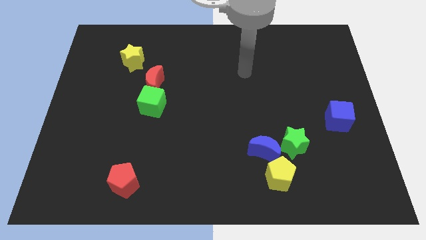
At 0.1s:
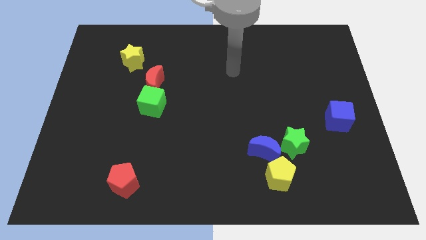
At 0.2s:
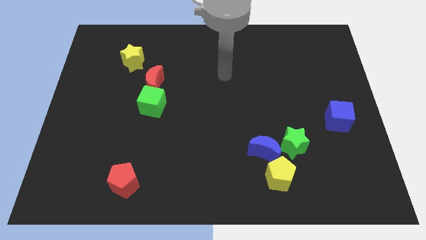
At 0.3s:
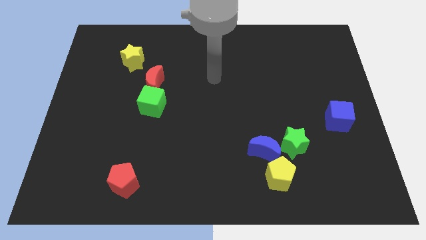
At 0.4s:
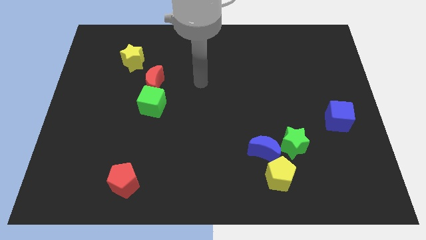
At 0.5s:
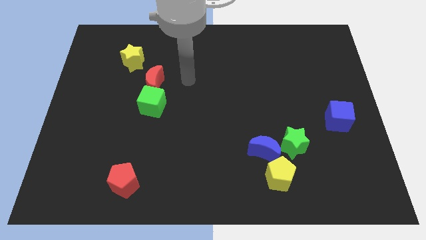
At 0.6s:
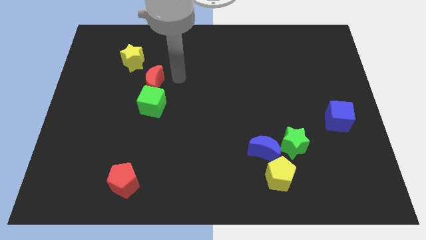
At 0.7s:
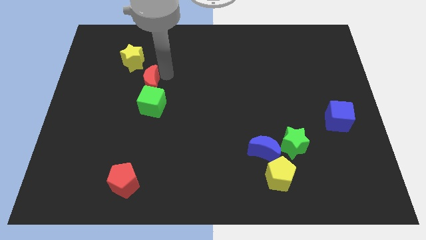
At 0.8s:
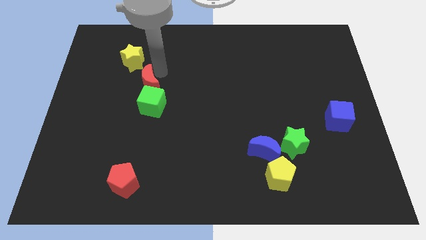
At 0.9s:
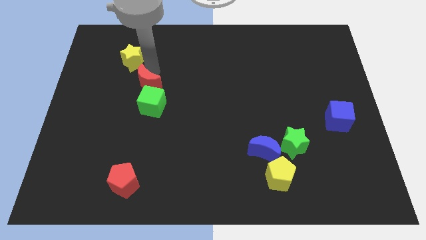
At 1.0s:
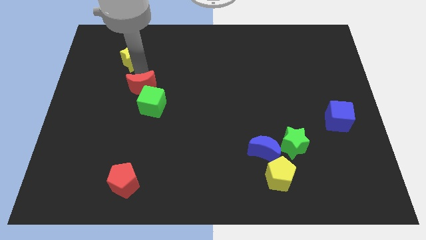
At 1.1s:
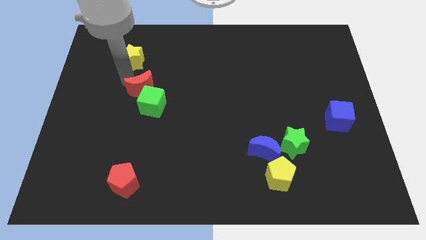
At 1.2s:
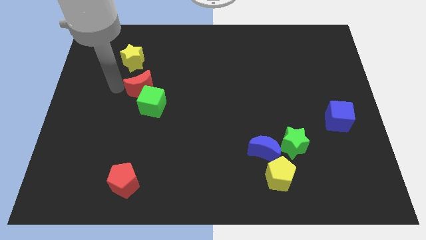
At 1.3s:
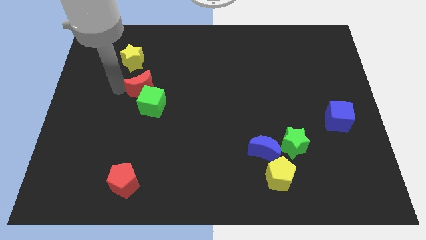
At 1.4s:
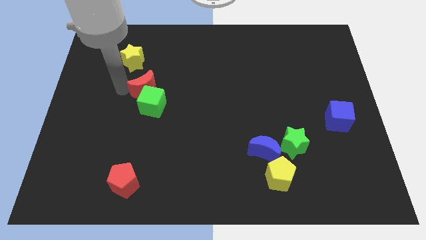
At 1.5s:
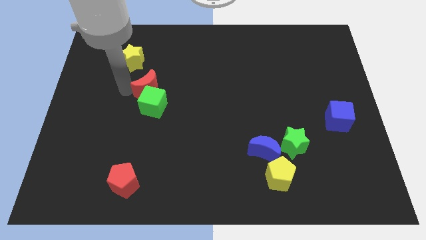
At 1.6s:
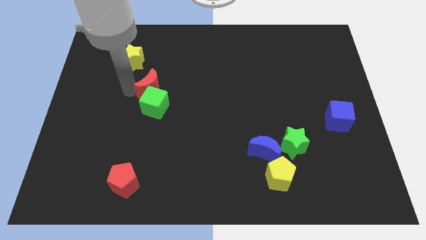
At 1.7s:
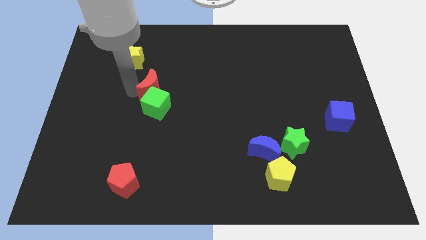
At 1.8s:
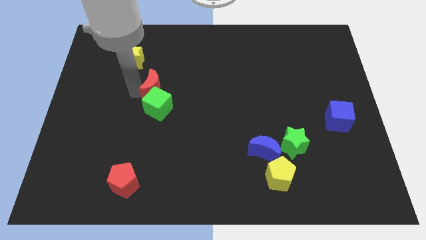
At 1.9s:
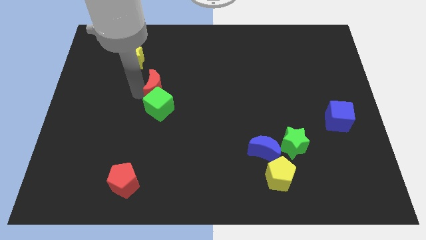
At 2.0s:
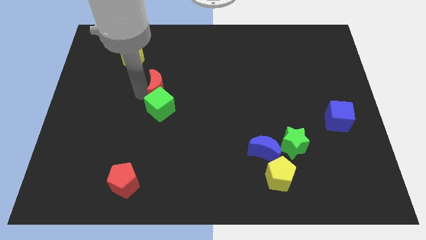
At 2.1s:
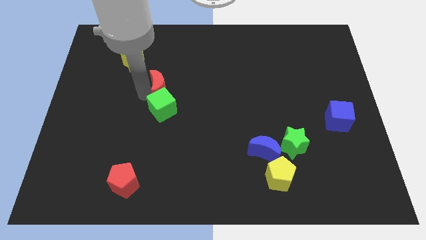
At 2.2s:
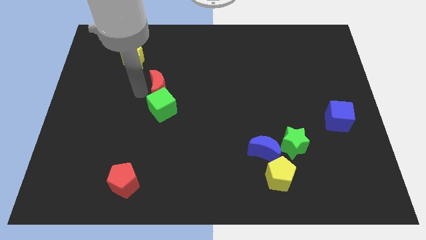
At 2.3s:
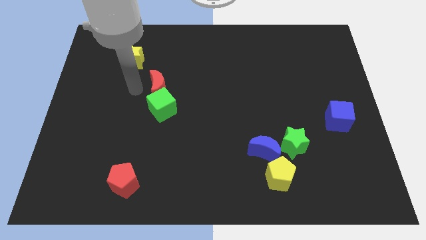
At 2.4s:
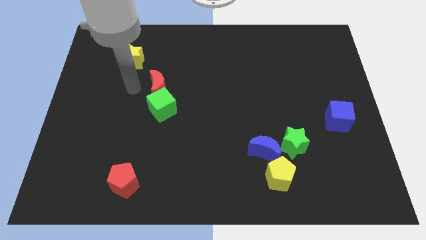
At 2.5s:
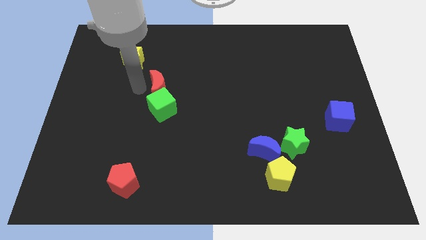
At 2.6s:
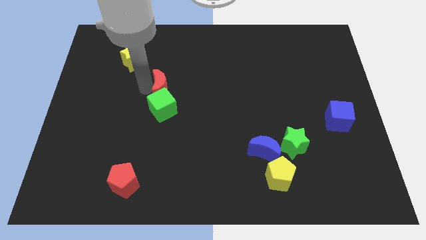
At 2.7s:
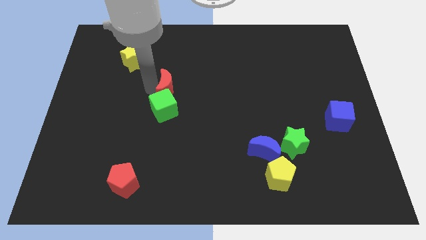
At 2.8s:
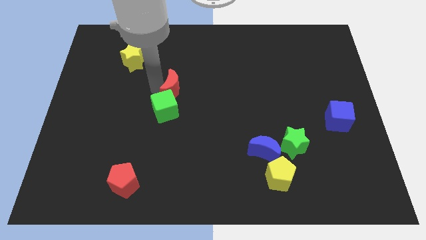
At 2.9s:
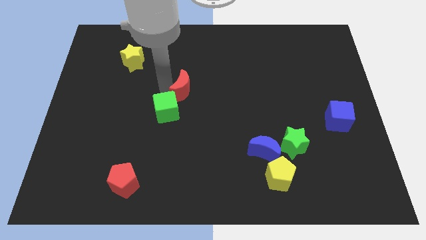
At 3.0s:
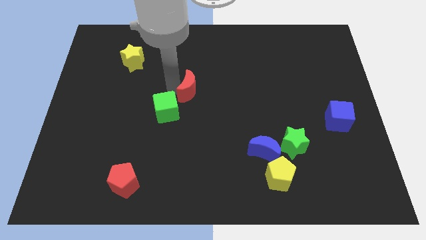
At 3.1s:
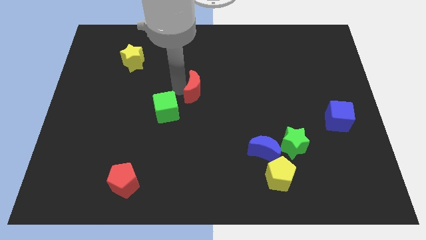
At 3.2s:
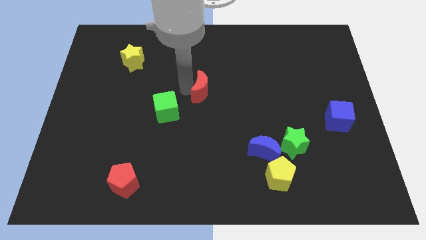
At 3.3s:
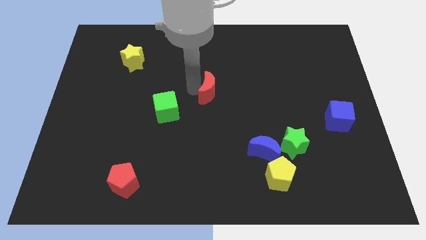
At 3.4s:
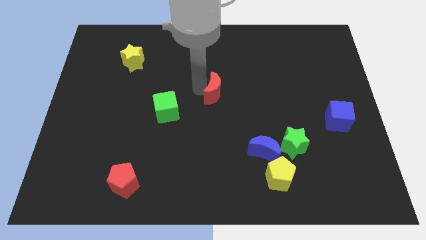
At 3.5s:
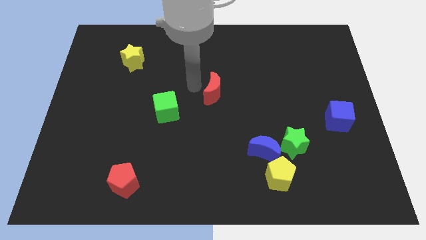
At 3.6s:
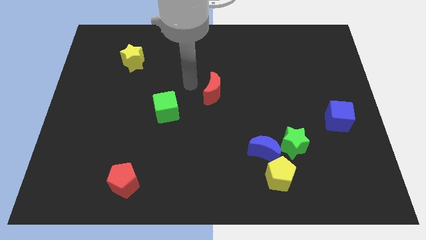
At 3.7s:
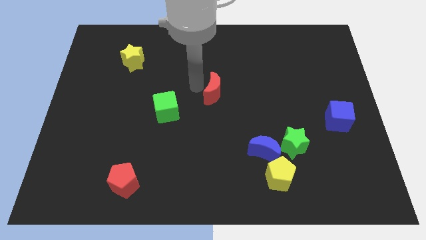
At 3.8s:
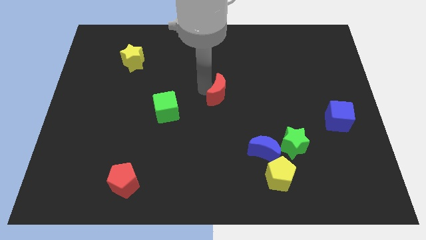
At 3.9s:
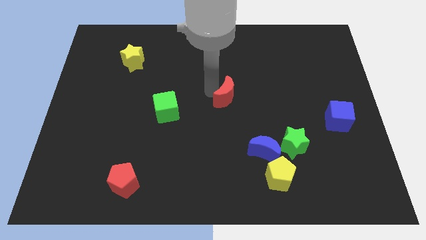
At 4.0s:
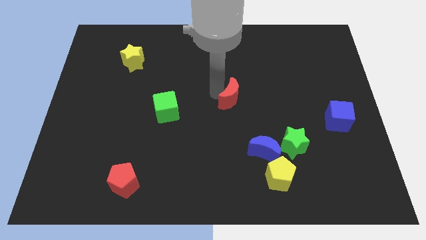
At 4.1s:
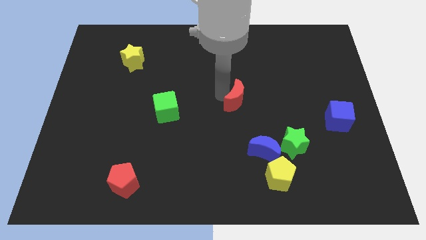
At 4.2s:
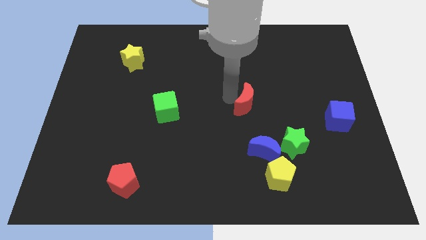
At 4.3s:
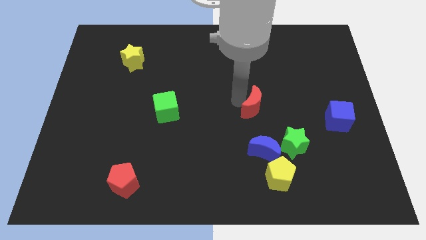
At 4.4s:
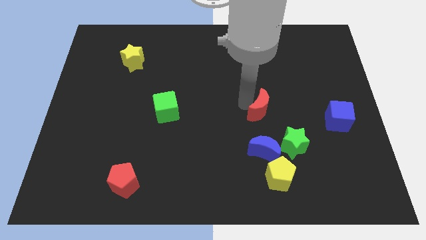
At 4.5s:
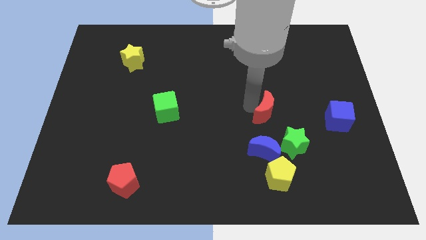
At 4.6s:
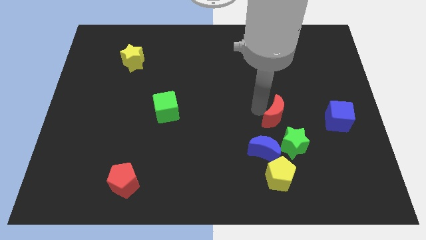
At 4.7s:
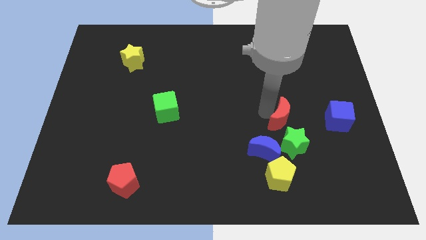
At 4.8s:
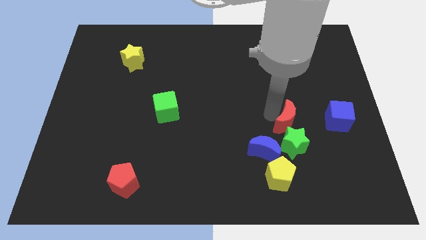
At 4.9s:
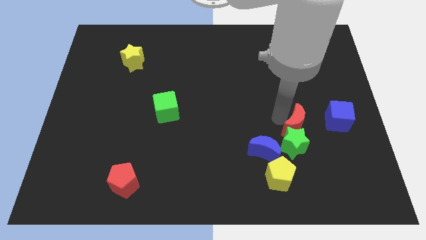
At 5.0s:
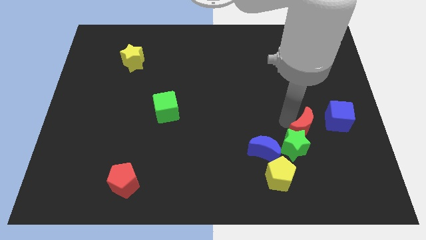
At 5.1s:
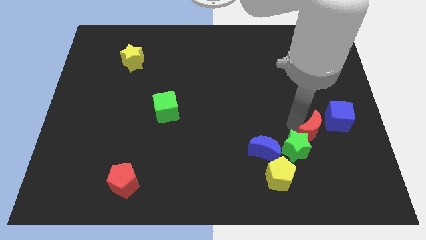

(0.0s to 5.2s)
put the red moon to the right of the green star

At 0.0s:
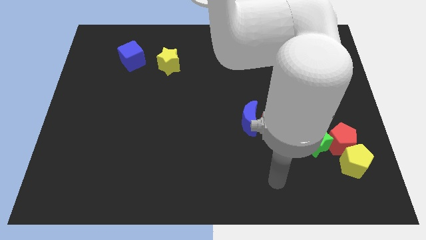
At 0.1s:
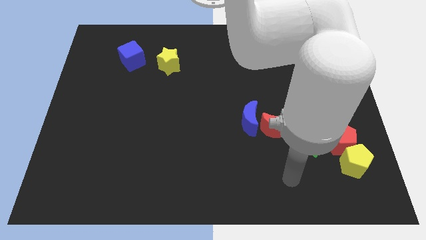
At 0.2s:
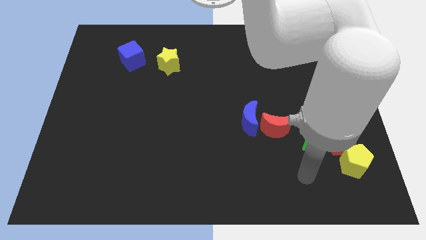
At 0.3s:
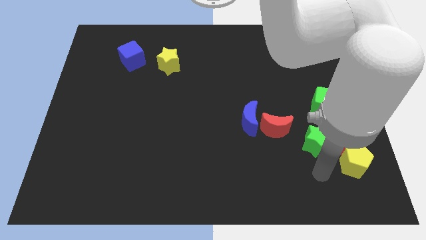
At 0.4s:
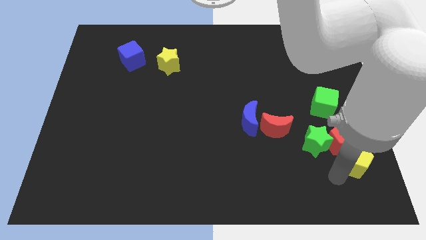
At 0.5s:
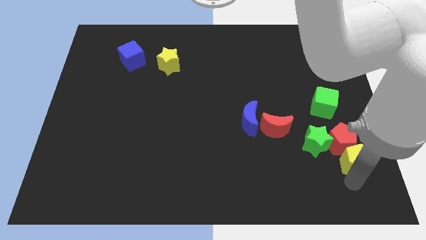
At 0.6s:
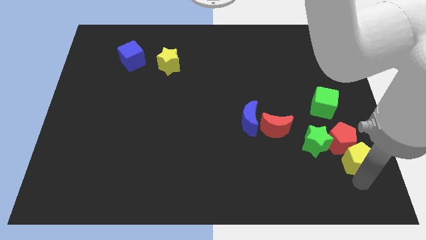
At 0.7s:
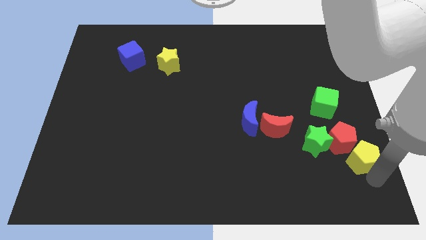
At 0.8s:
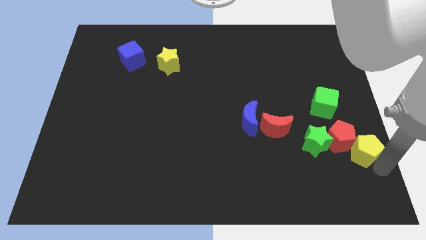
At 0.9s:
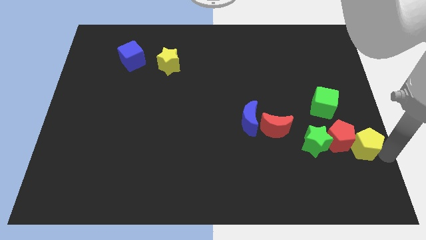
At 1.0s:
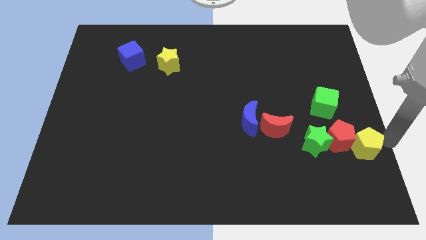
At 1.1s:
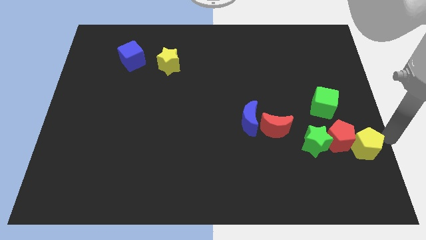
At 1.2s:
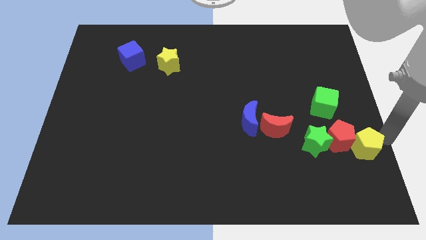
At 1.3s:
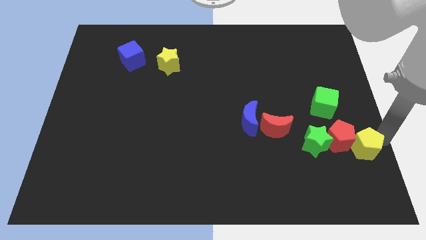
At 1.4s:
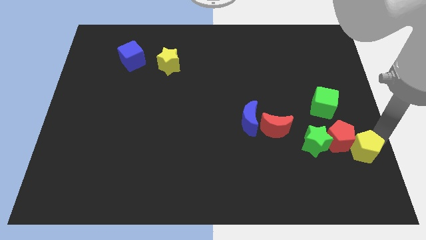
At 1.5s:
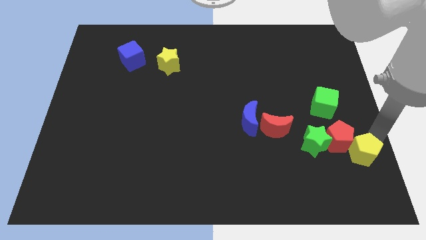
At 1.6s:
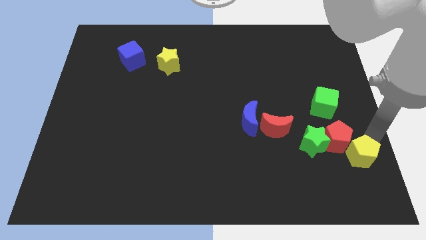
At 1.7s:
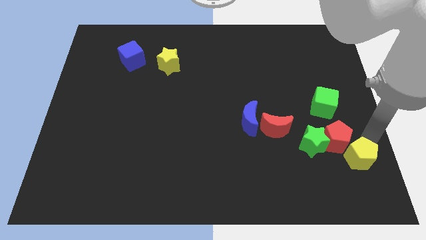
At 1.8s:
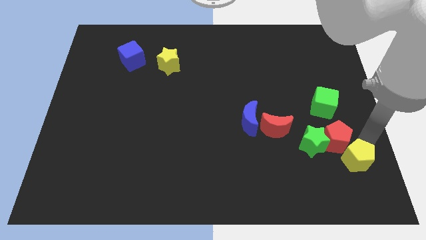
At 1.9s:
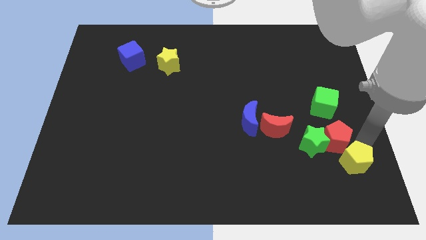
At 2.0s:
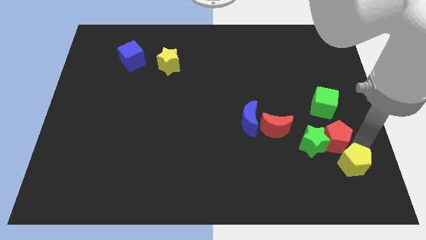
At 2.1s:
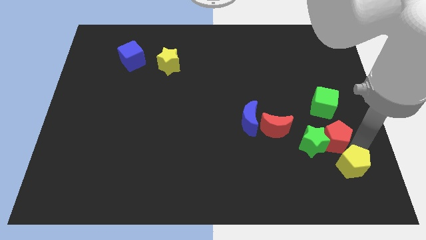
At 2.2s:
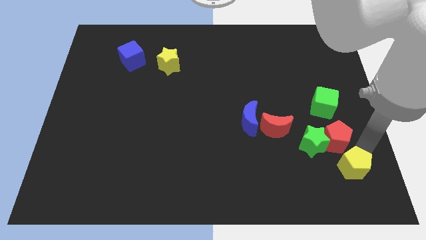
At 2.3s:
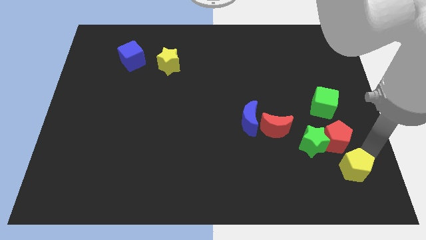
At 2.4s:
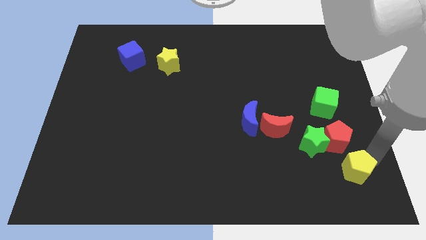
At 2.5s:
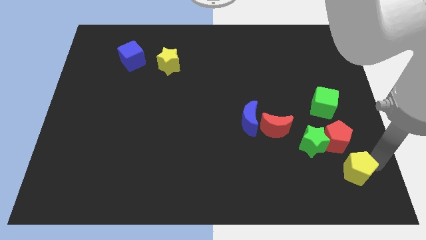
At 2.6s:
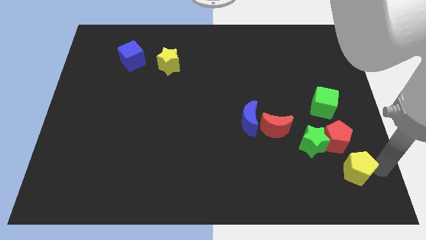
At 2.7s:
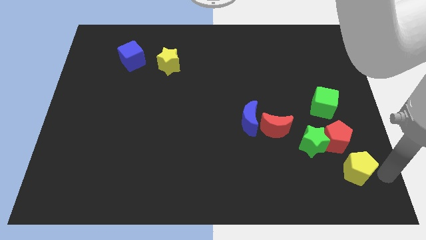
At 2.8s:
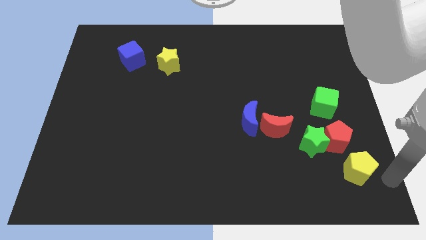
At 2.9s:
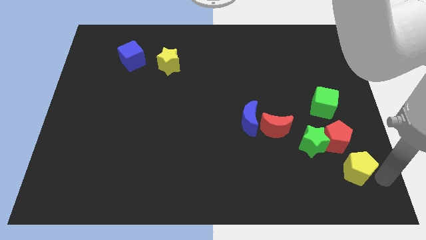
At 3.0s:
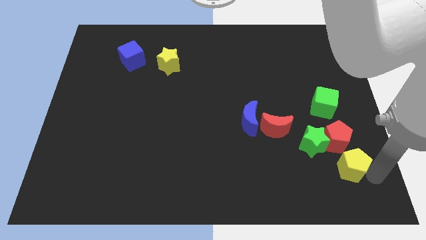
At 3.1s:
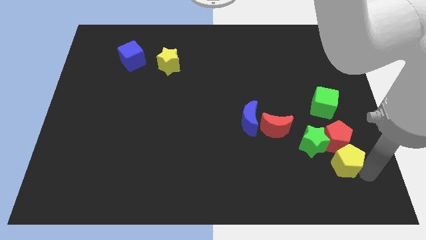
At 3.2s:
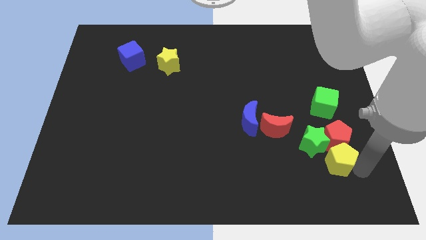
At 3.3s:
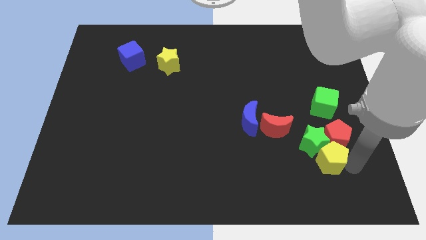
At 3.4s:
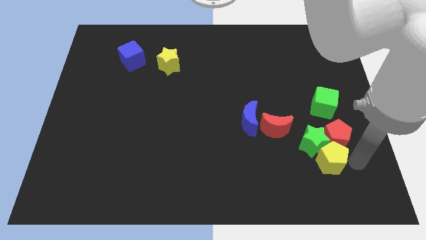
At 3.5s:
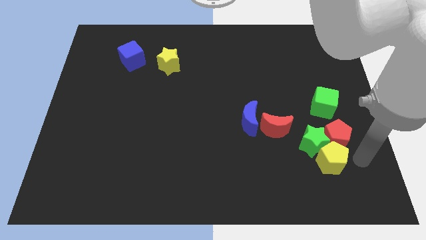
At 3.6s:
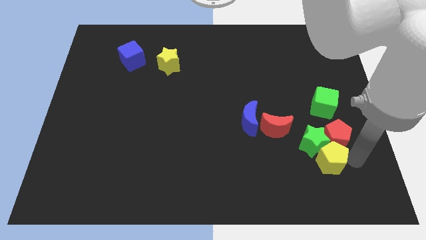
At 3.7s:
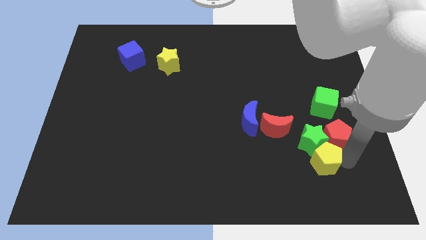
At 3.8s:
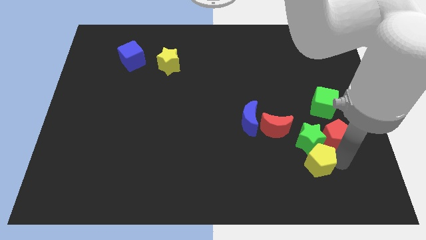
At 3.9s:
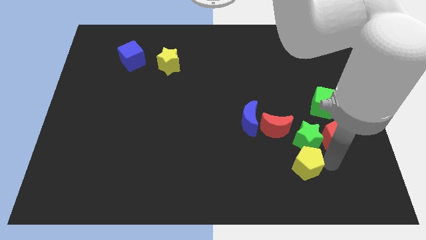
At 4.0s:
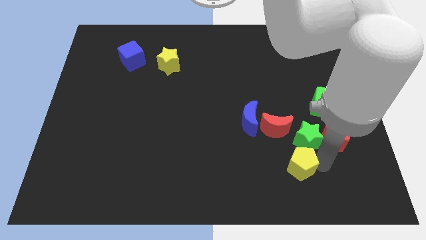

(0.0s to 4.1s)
put the yellow pentagon to the bottom of the red moon
